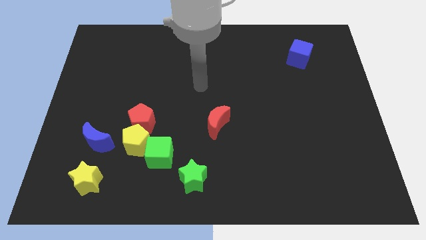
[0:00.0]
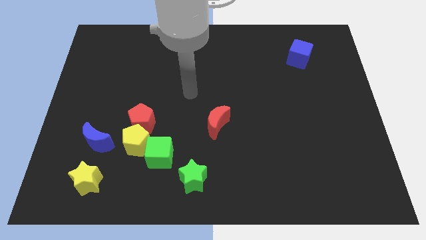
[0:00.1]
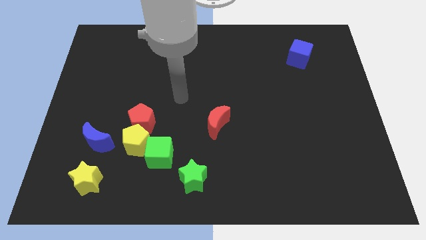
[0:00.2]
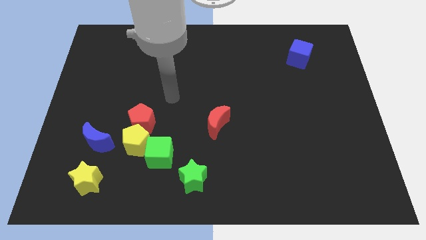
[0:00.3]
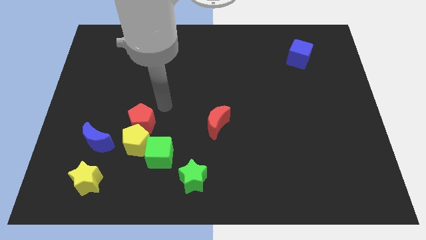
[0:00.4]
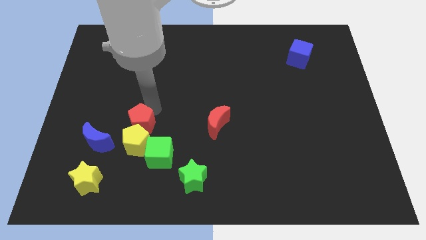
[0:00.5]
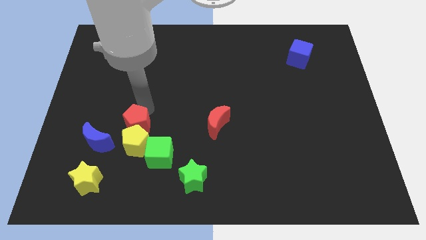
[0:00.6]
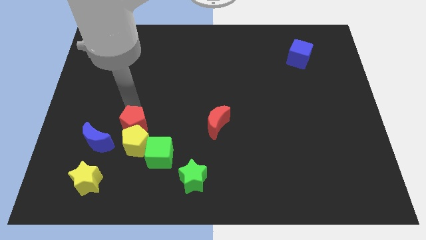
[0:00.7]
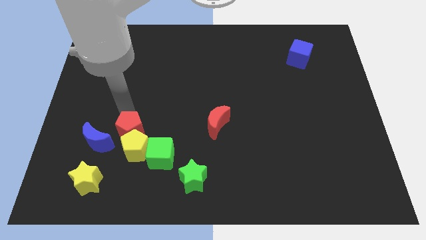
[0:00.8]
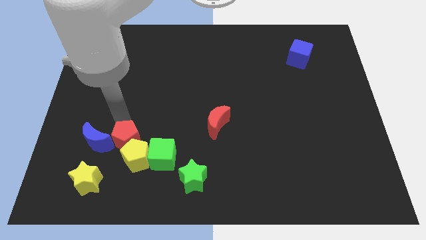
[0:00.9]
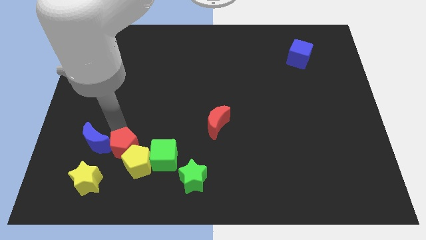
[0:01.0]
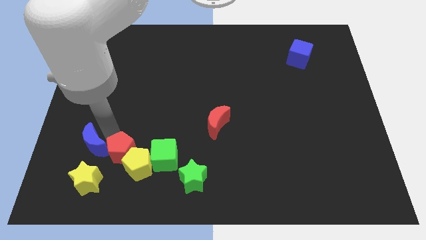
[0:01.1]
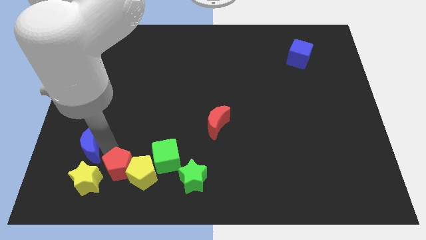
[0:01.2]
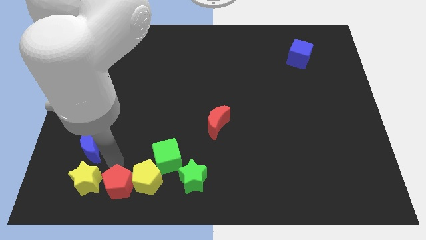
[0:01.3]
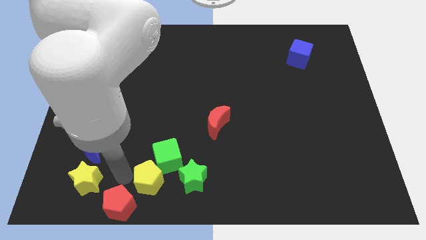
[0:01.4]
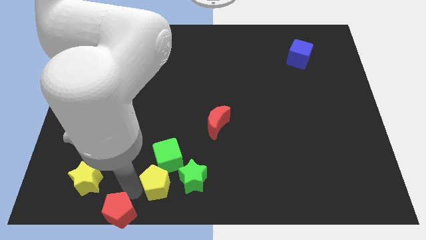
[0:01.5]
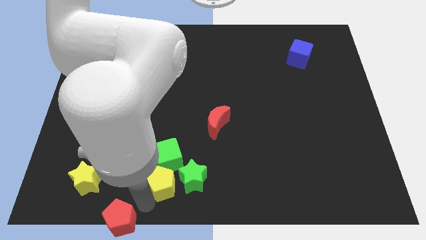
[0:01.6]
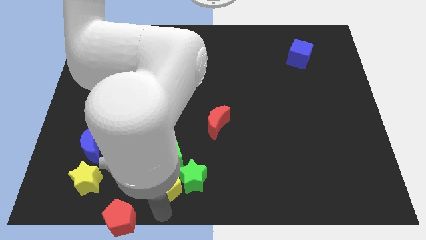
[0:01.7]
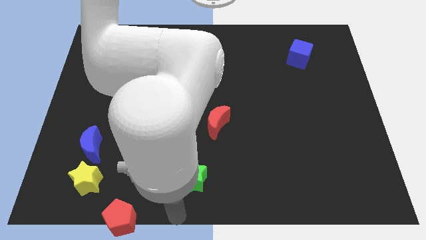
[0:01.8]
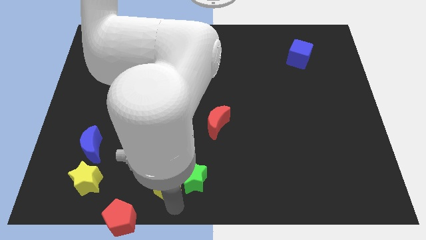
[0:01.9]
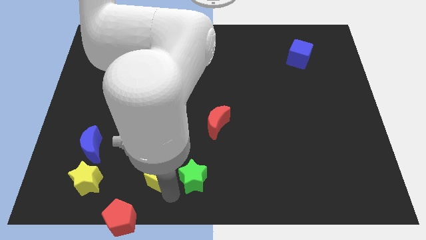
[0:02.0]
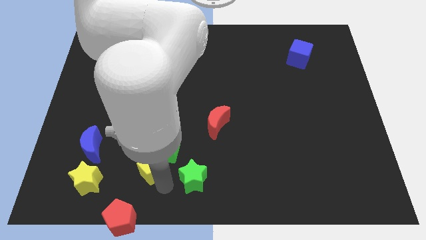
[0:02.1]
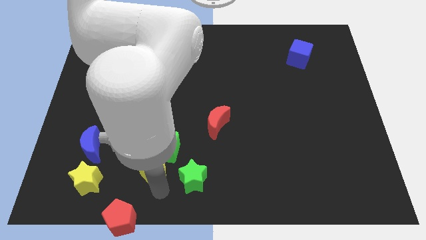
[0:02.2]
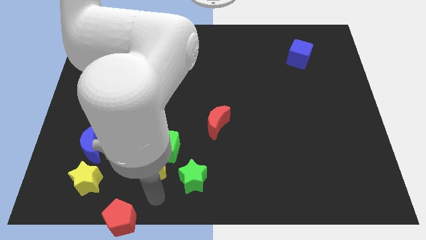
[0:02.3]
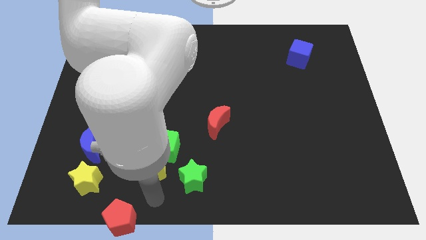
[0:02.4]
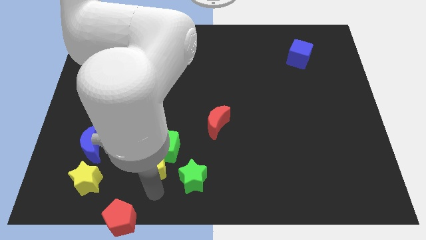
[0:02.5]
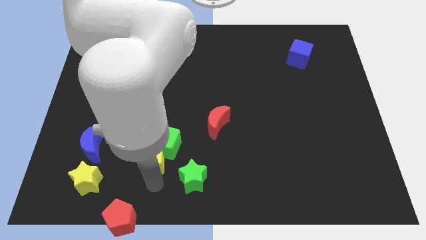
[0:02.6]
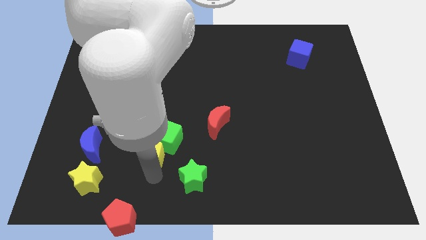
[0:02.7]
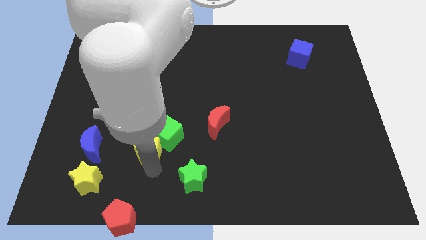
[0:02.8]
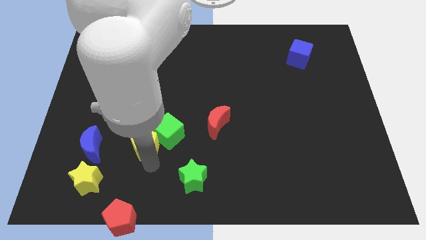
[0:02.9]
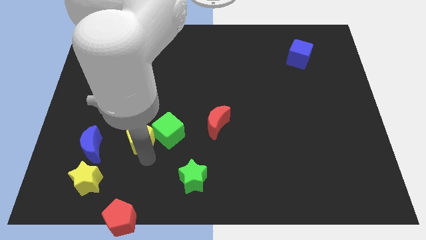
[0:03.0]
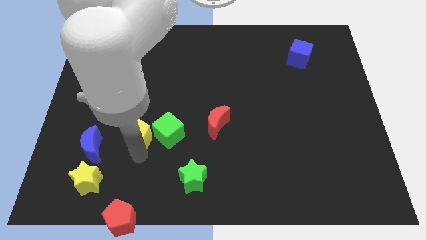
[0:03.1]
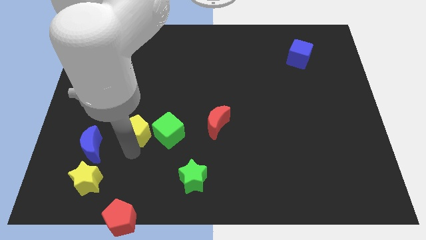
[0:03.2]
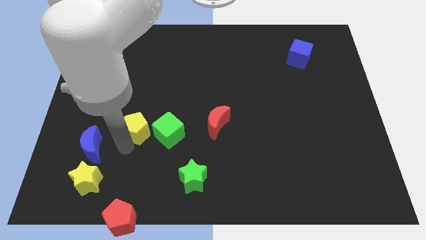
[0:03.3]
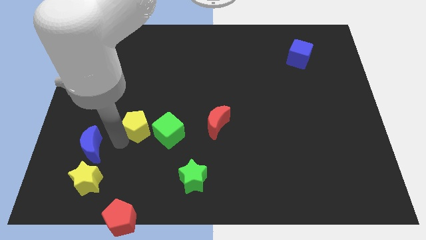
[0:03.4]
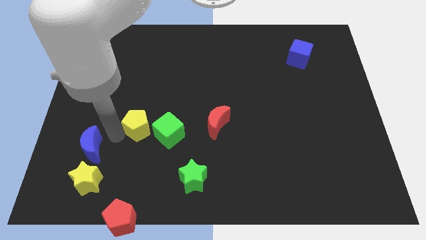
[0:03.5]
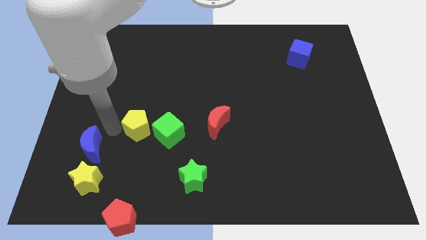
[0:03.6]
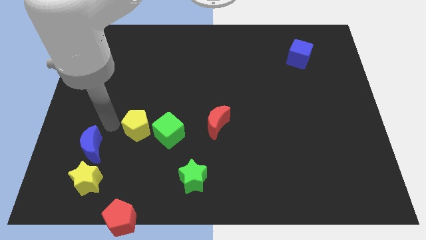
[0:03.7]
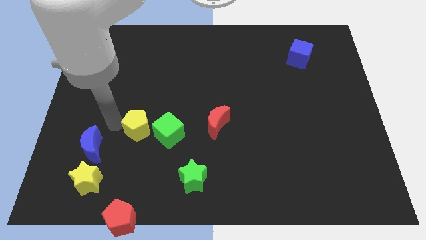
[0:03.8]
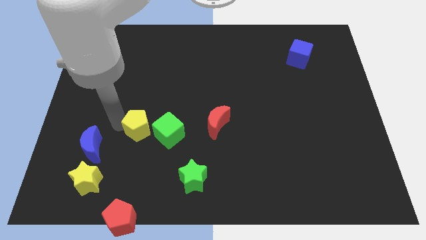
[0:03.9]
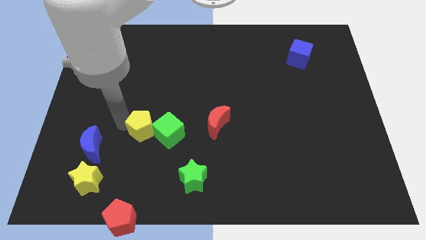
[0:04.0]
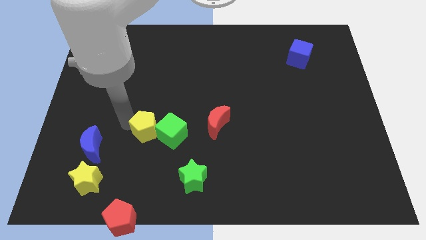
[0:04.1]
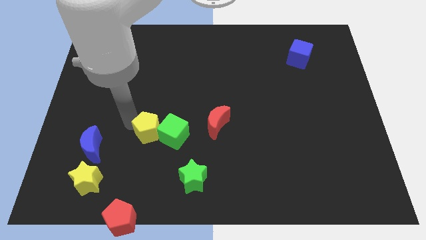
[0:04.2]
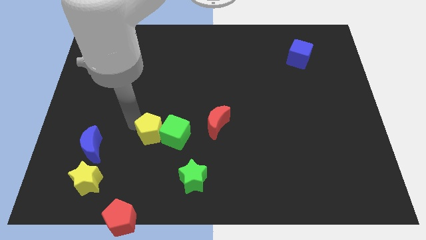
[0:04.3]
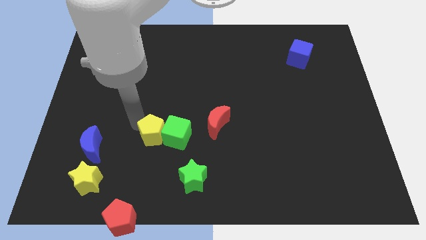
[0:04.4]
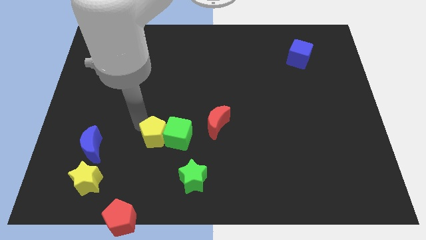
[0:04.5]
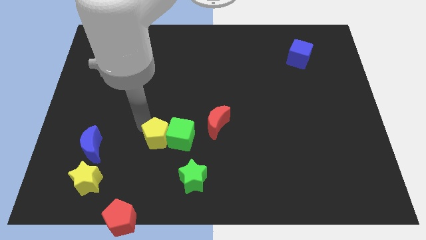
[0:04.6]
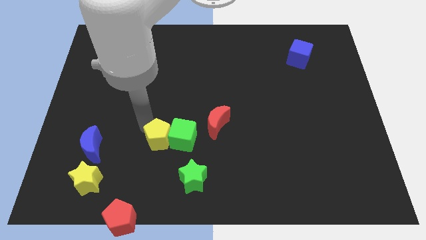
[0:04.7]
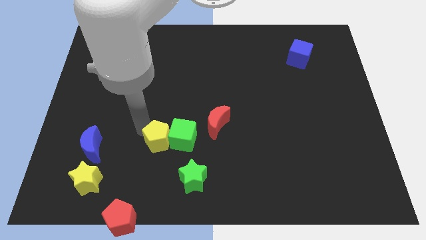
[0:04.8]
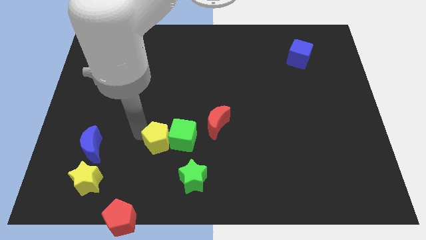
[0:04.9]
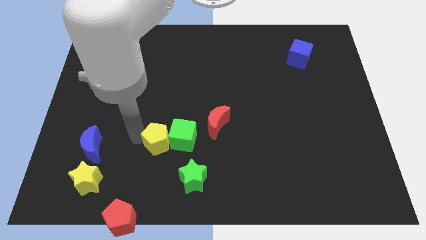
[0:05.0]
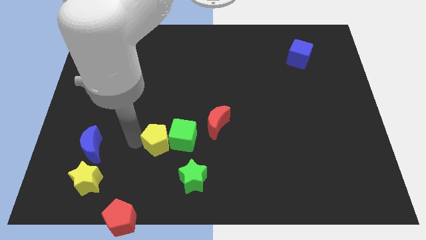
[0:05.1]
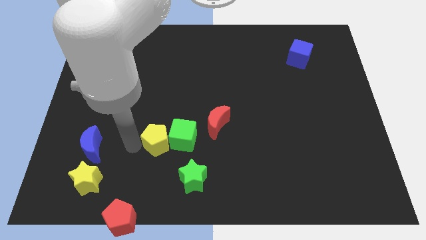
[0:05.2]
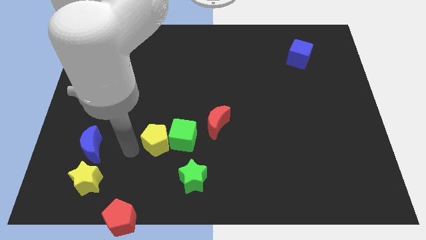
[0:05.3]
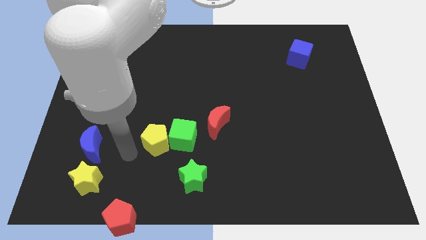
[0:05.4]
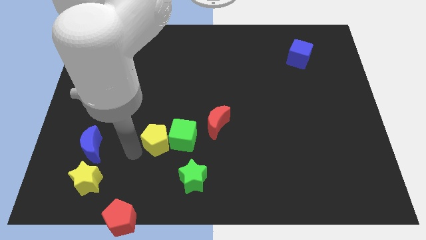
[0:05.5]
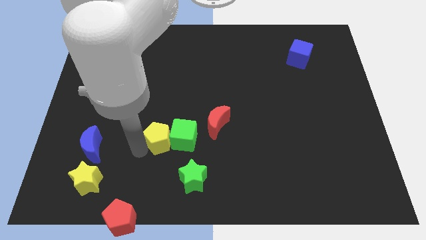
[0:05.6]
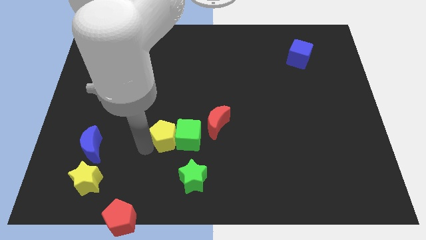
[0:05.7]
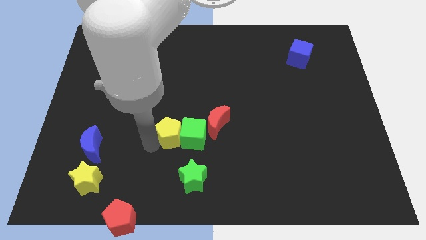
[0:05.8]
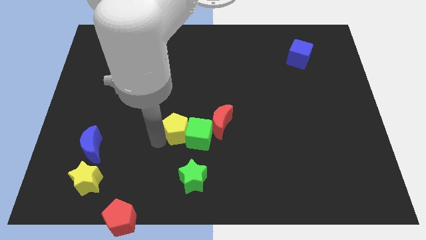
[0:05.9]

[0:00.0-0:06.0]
put the yellow pentagon to the top side of the green star

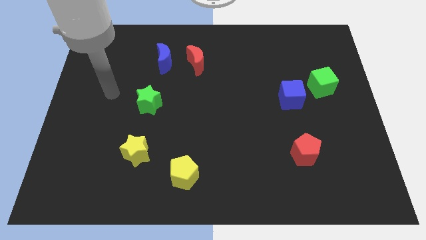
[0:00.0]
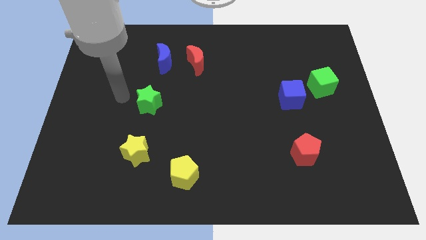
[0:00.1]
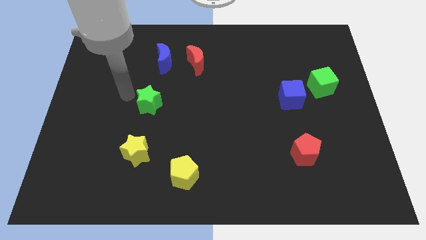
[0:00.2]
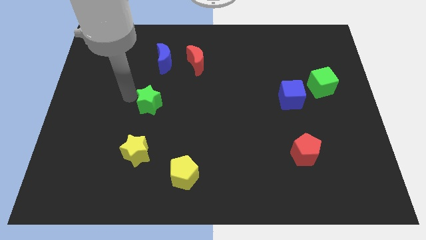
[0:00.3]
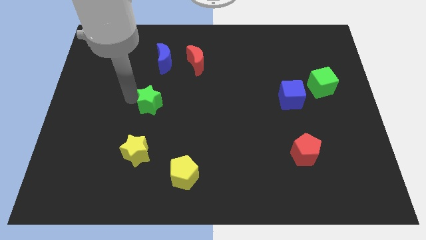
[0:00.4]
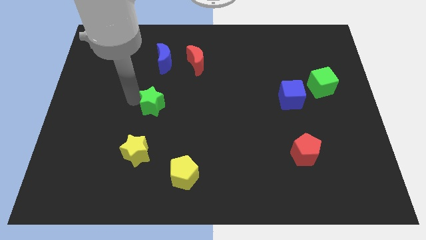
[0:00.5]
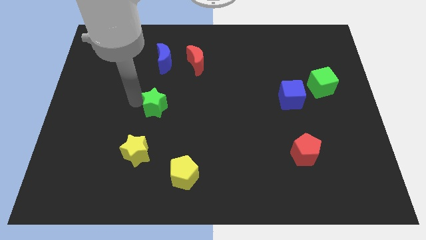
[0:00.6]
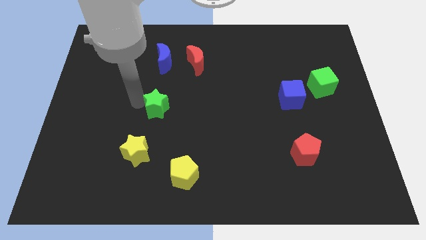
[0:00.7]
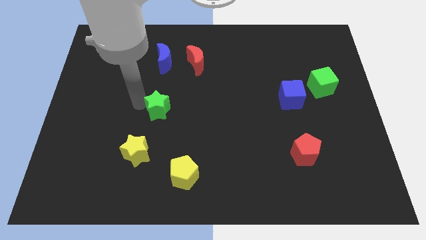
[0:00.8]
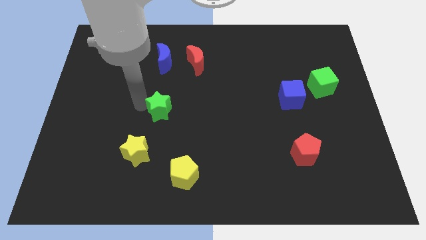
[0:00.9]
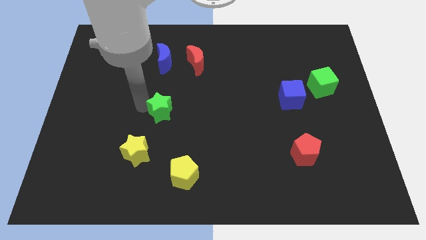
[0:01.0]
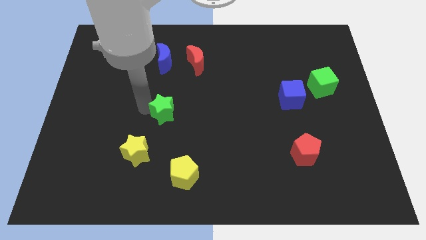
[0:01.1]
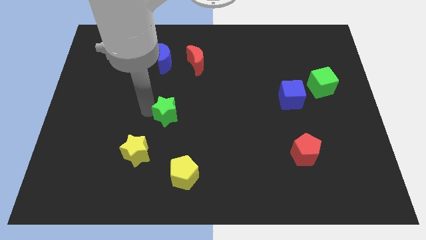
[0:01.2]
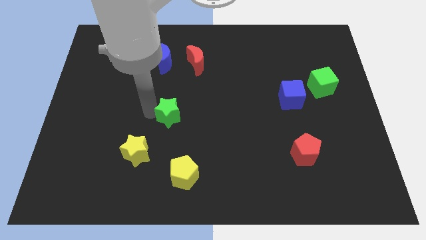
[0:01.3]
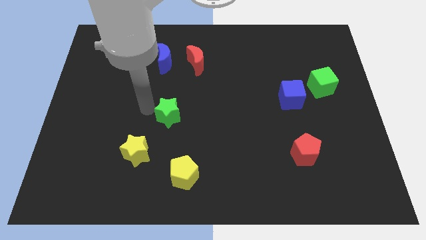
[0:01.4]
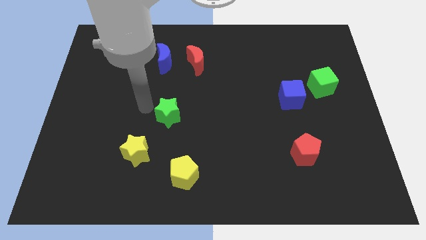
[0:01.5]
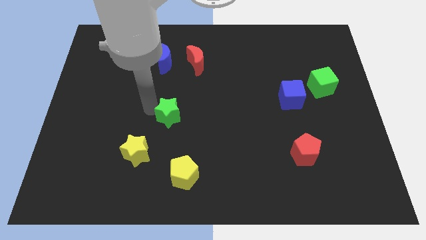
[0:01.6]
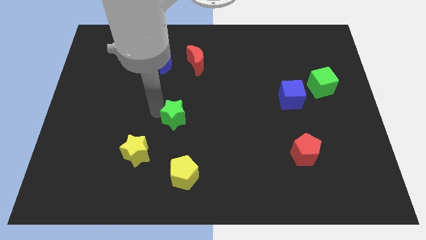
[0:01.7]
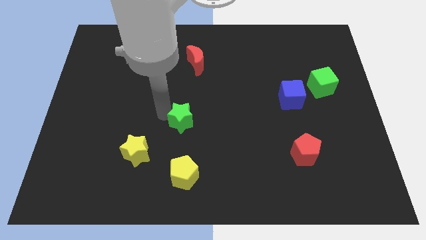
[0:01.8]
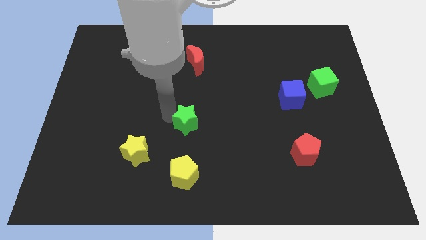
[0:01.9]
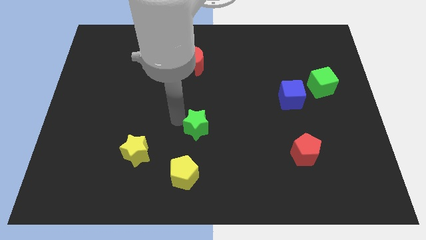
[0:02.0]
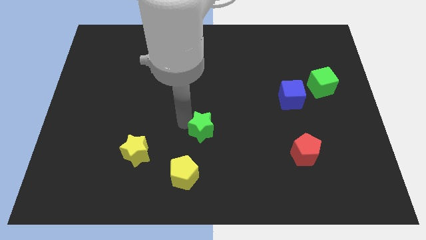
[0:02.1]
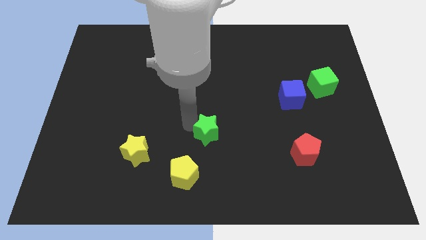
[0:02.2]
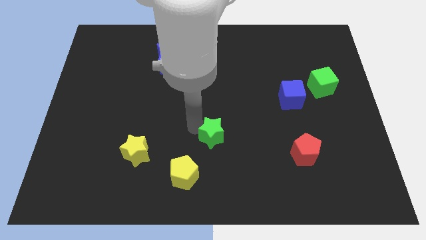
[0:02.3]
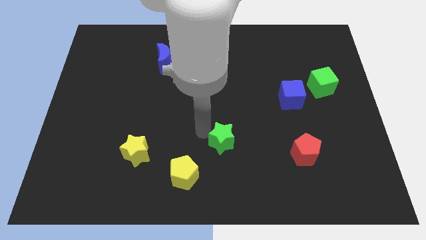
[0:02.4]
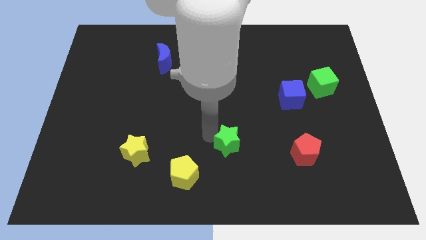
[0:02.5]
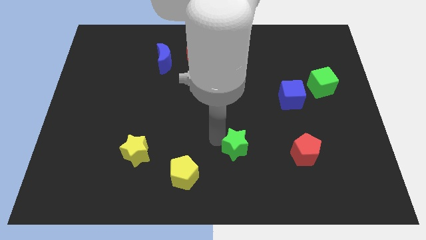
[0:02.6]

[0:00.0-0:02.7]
move the green star left of the red pentagon
